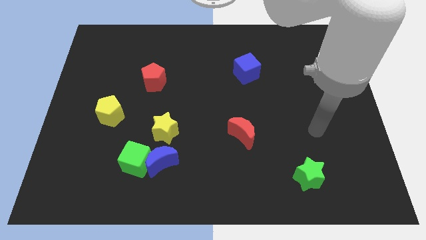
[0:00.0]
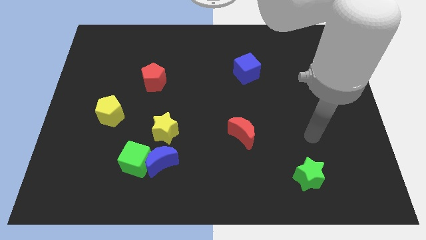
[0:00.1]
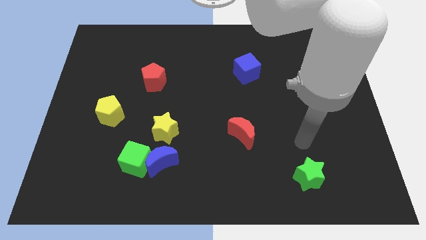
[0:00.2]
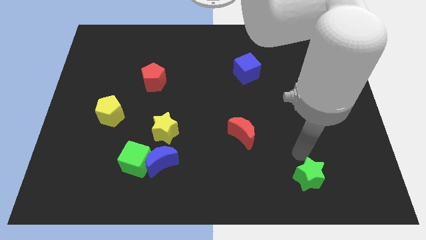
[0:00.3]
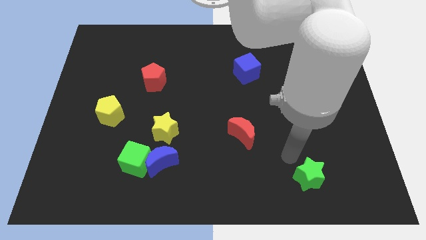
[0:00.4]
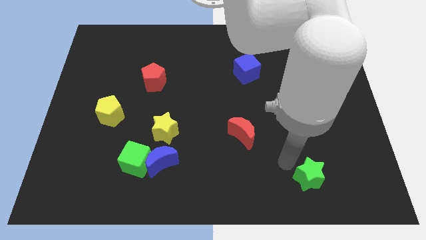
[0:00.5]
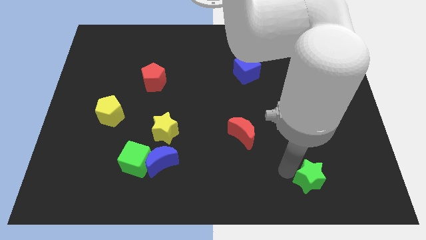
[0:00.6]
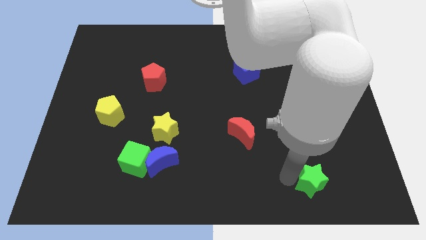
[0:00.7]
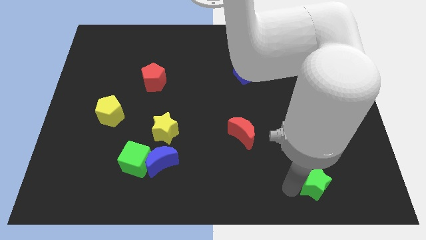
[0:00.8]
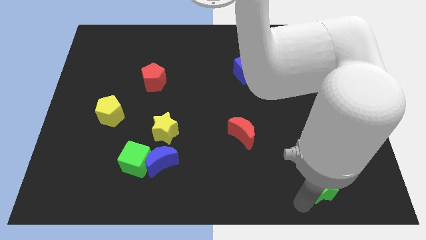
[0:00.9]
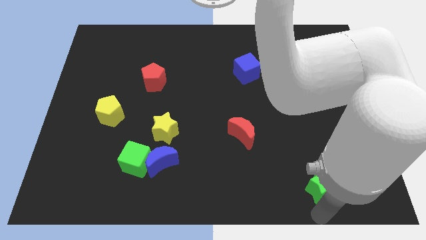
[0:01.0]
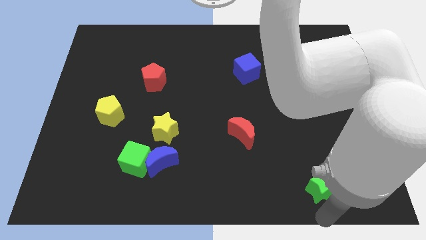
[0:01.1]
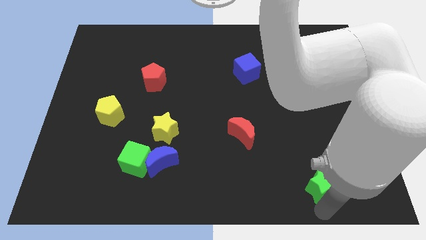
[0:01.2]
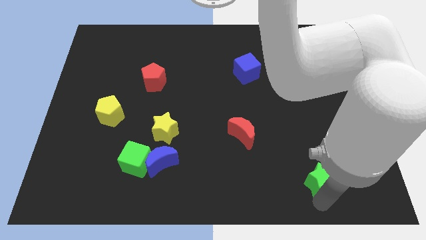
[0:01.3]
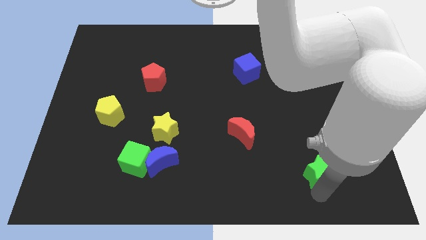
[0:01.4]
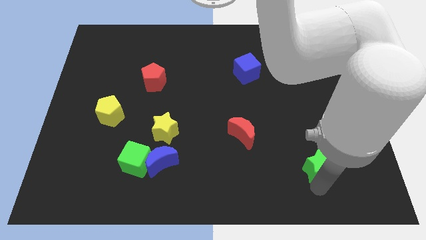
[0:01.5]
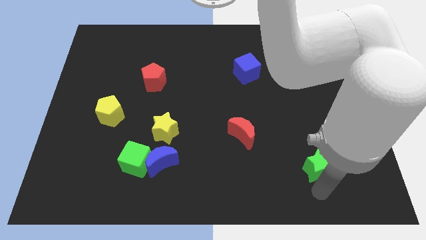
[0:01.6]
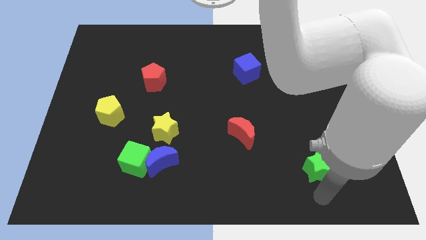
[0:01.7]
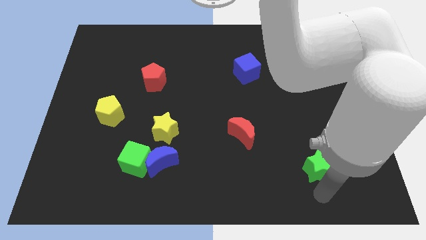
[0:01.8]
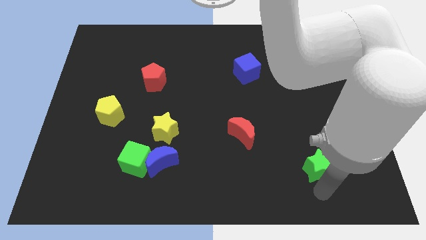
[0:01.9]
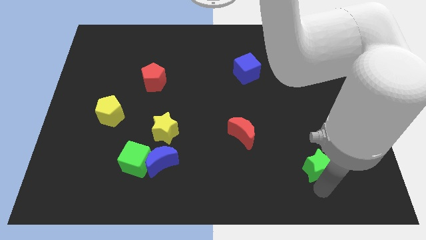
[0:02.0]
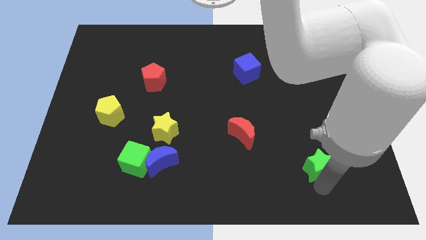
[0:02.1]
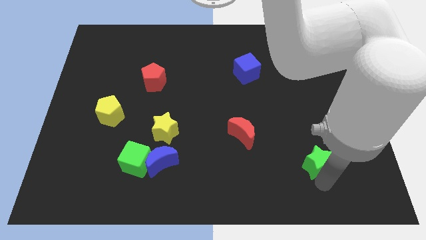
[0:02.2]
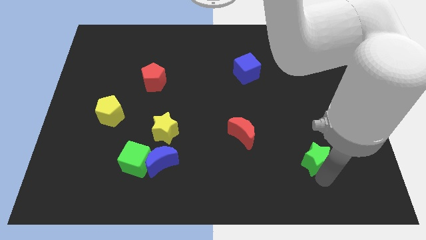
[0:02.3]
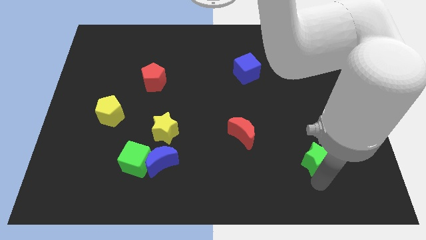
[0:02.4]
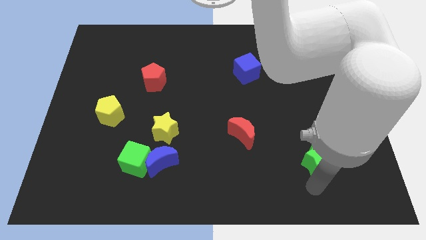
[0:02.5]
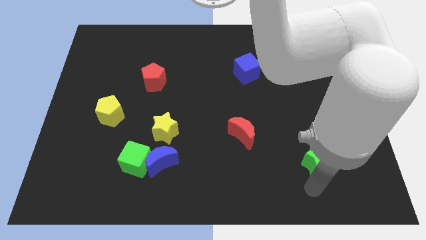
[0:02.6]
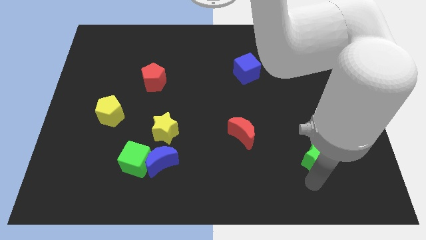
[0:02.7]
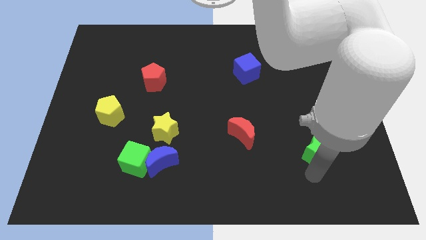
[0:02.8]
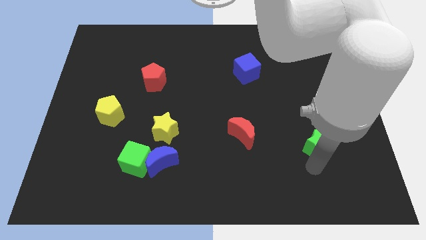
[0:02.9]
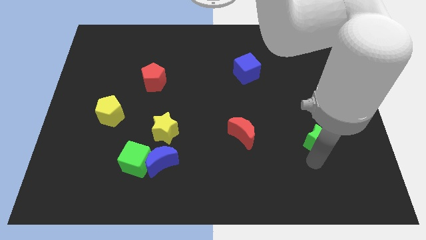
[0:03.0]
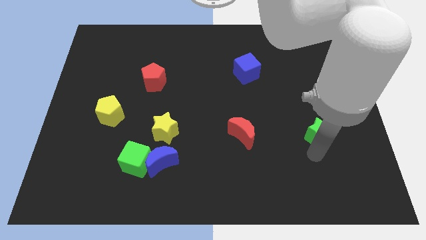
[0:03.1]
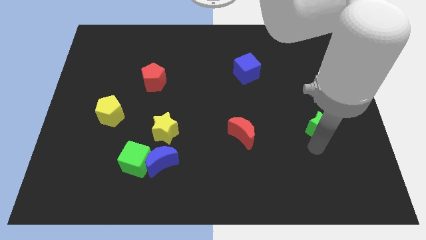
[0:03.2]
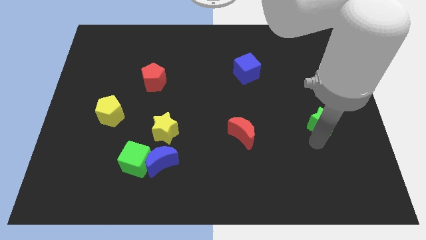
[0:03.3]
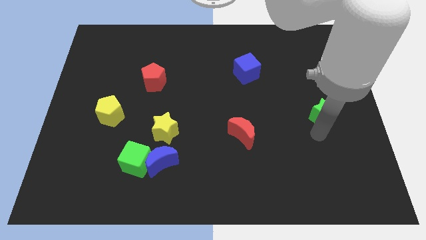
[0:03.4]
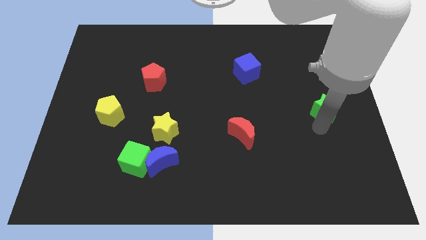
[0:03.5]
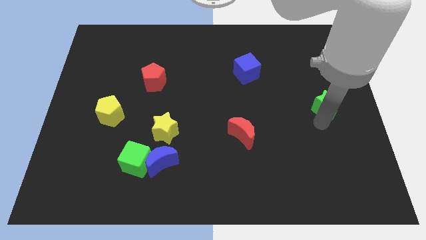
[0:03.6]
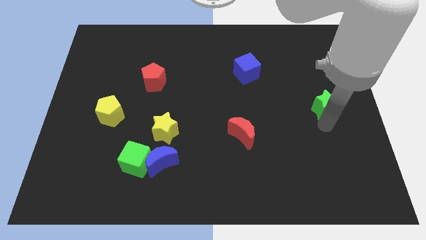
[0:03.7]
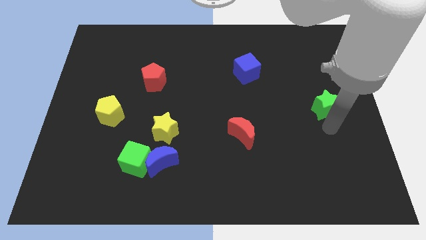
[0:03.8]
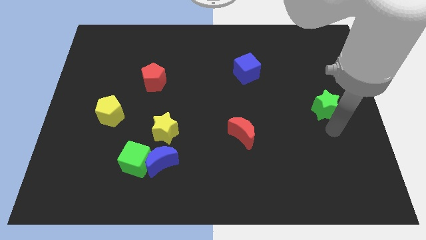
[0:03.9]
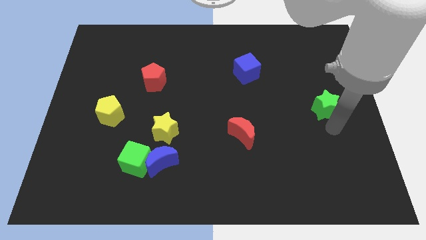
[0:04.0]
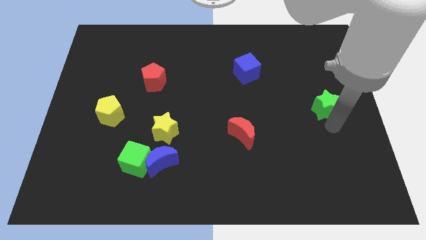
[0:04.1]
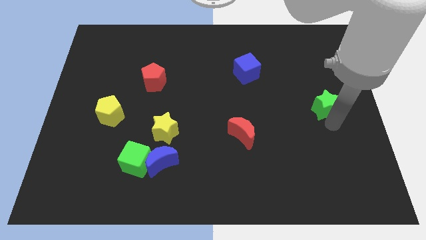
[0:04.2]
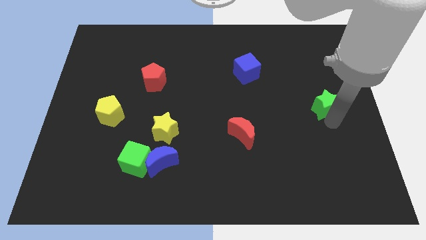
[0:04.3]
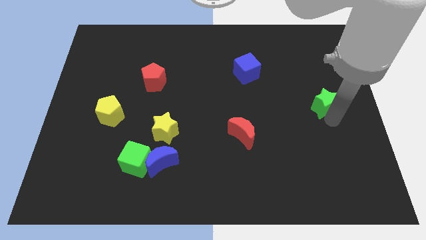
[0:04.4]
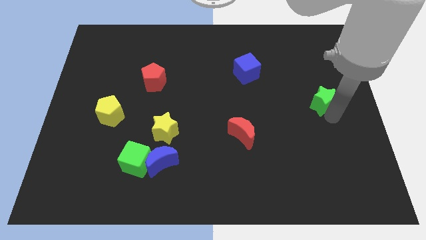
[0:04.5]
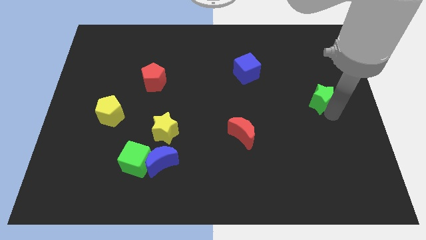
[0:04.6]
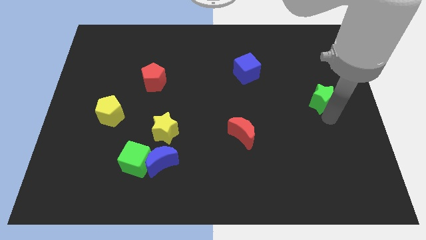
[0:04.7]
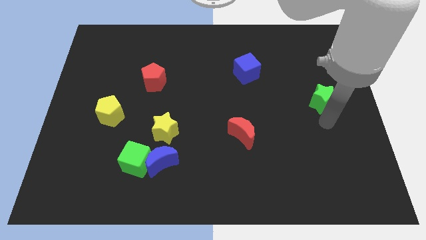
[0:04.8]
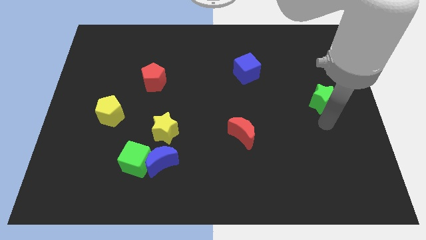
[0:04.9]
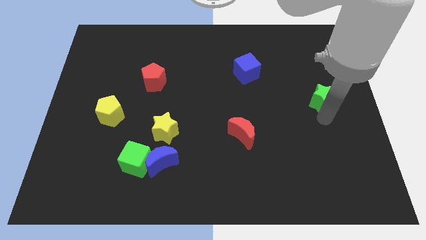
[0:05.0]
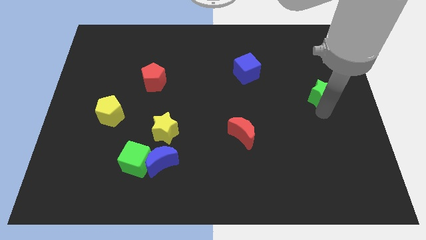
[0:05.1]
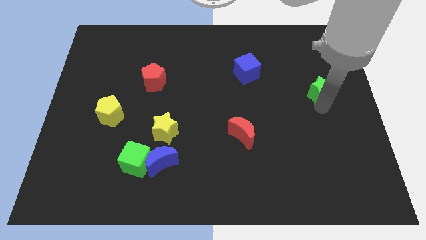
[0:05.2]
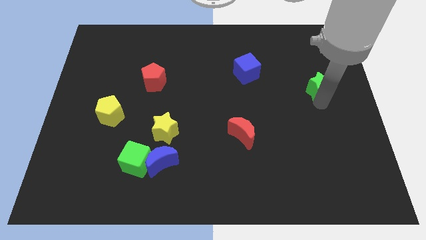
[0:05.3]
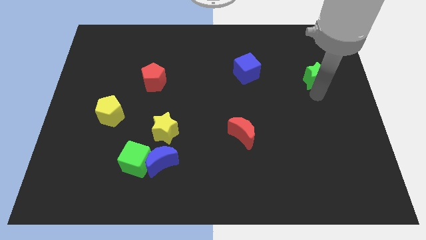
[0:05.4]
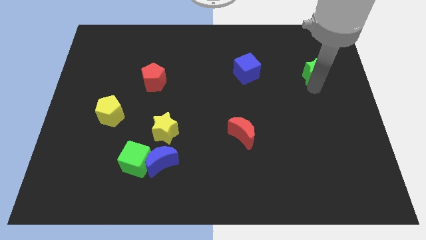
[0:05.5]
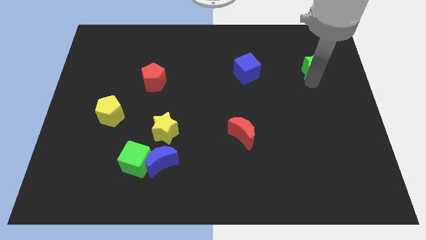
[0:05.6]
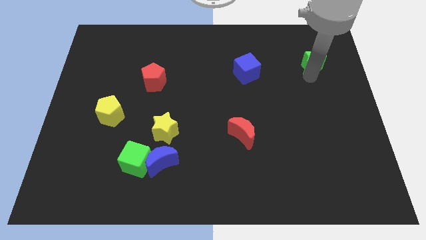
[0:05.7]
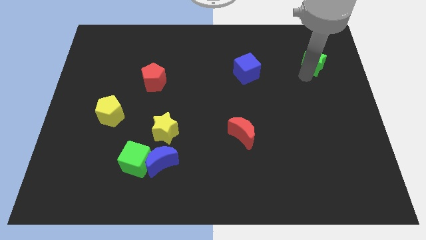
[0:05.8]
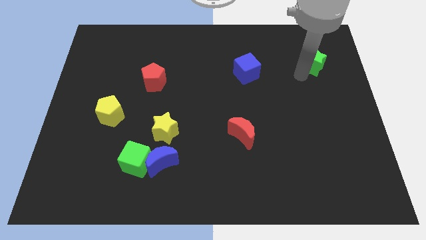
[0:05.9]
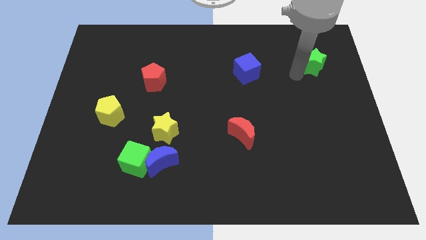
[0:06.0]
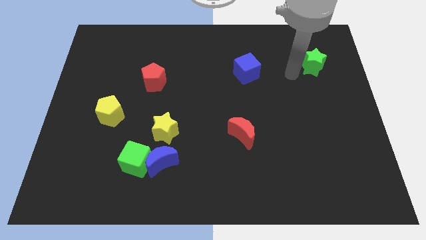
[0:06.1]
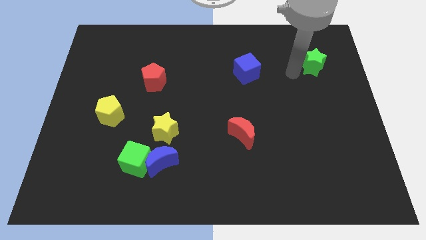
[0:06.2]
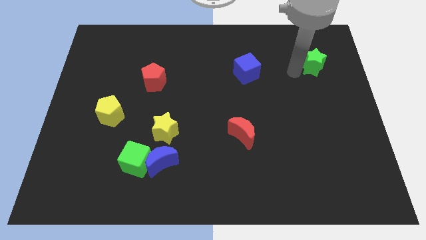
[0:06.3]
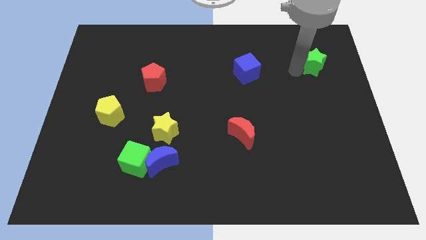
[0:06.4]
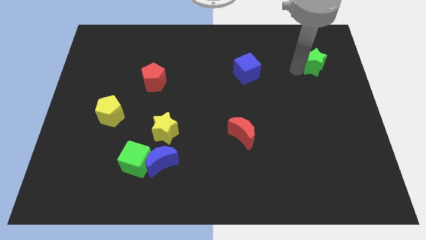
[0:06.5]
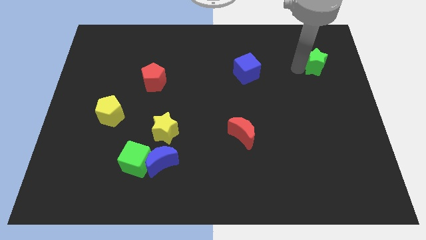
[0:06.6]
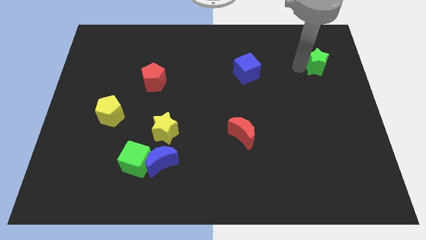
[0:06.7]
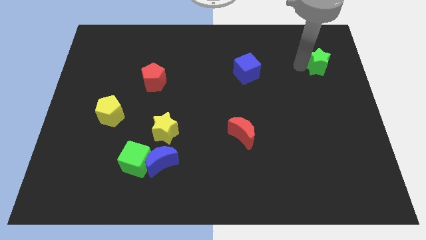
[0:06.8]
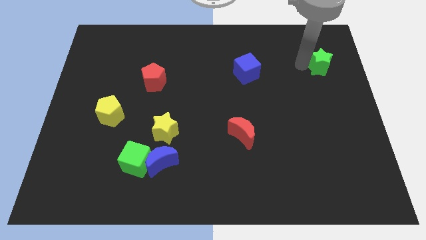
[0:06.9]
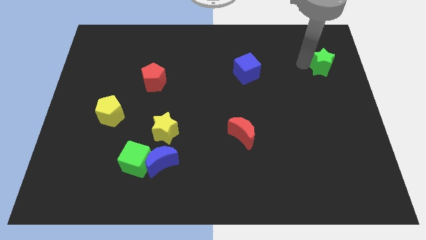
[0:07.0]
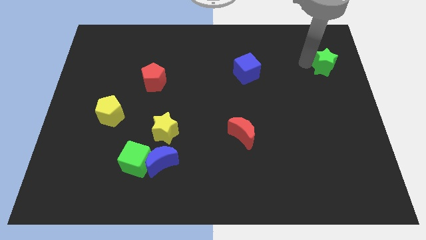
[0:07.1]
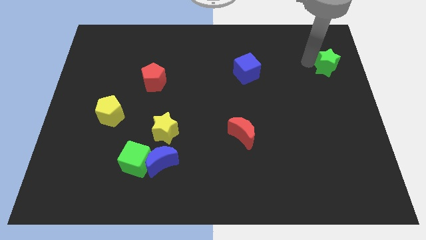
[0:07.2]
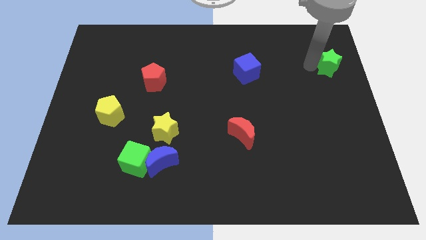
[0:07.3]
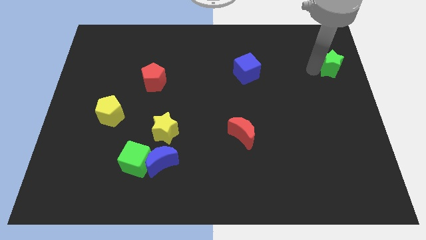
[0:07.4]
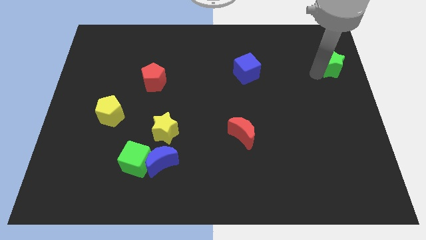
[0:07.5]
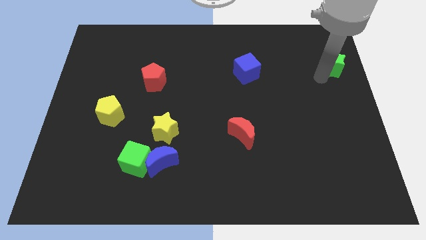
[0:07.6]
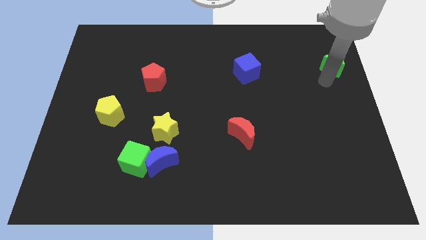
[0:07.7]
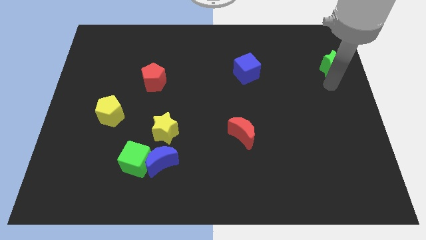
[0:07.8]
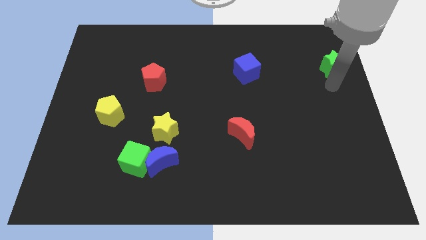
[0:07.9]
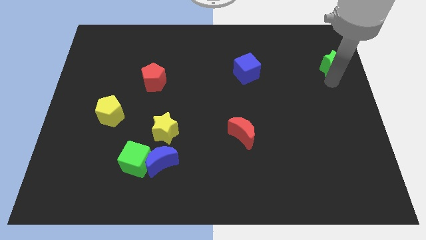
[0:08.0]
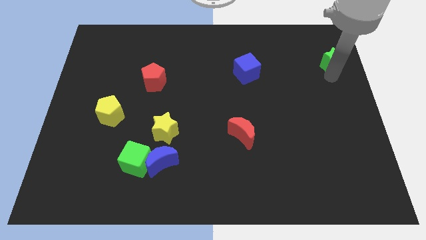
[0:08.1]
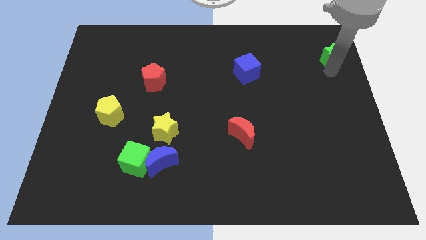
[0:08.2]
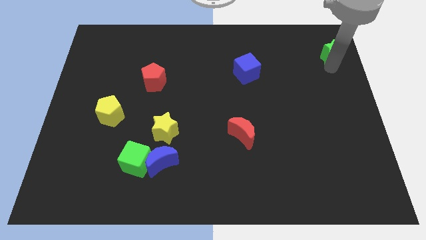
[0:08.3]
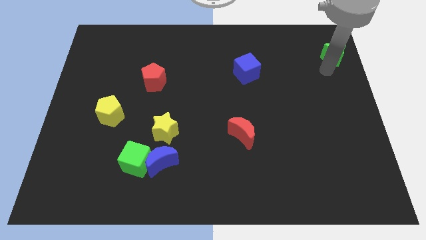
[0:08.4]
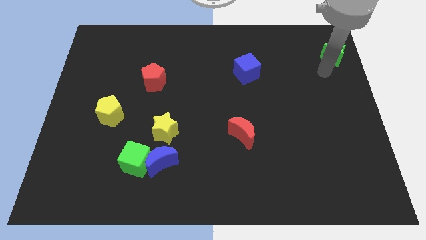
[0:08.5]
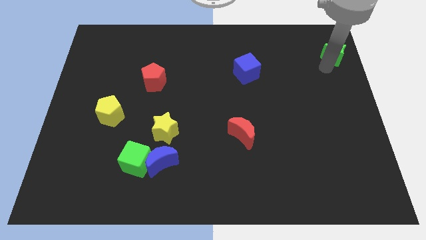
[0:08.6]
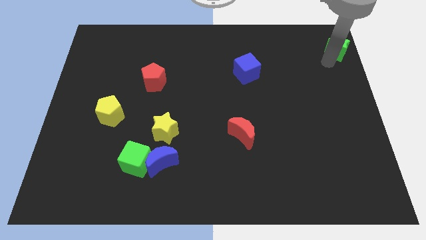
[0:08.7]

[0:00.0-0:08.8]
slide the green star to the upper right corner
